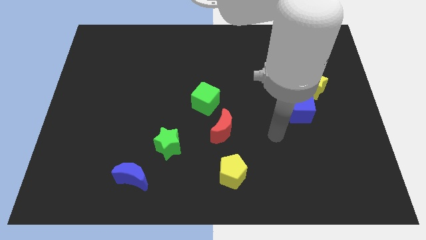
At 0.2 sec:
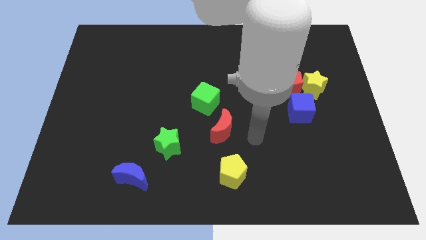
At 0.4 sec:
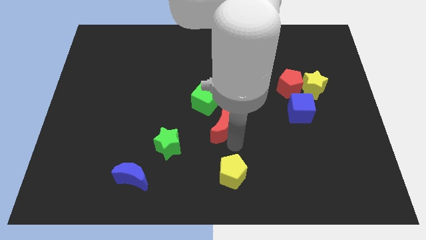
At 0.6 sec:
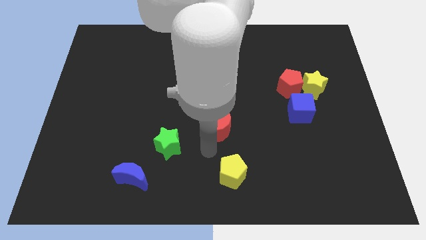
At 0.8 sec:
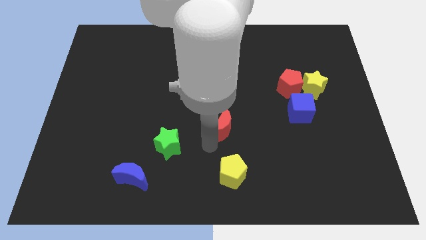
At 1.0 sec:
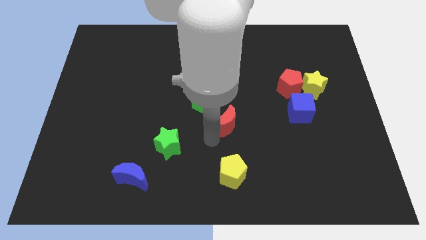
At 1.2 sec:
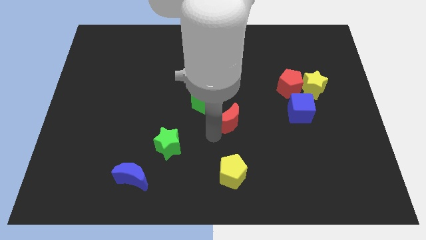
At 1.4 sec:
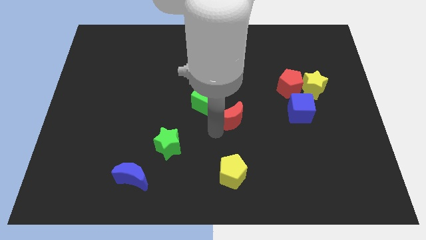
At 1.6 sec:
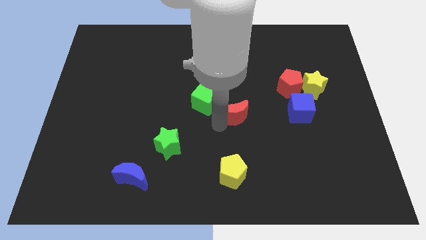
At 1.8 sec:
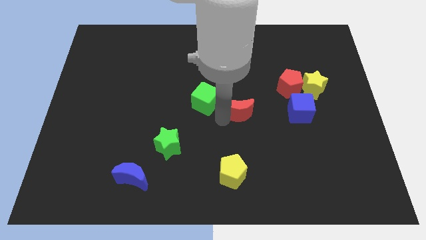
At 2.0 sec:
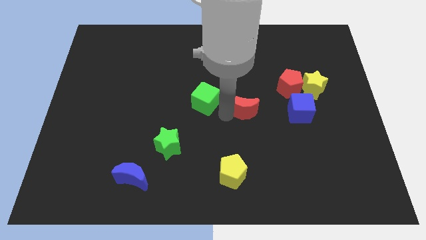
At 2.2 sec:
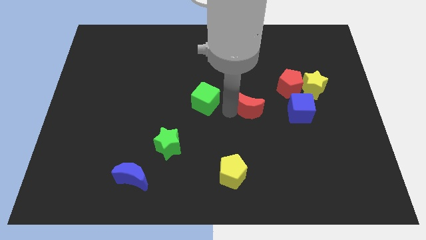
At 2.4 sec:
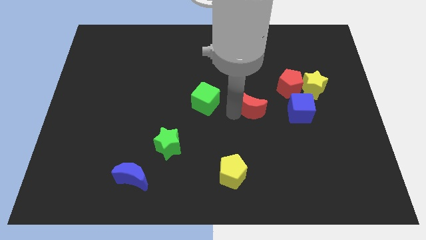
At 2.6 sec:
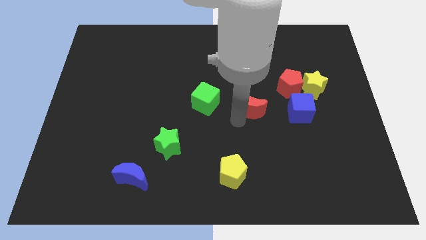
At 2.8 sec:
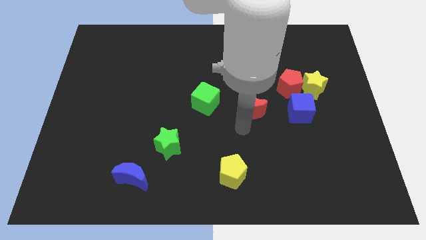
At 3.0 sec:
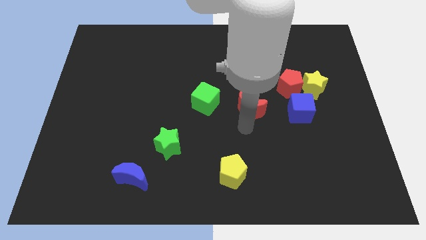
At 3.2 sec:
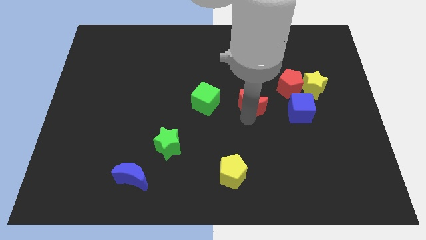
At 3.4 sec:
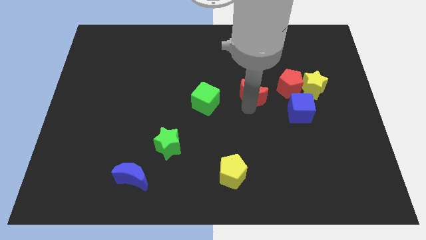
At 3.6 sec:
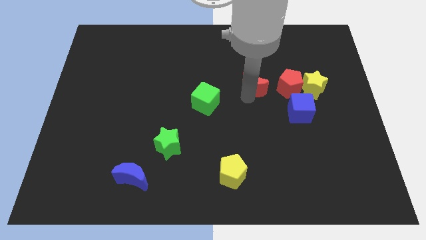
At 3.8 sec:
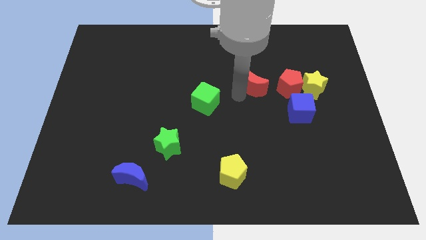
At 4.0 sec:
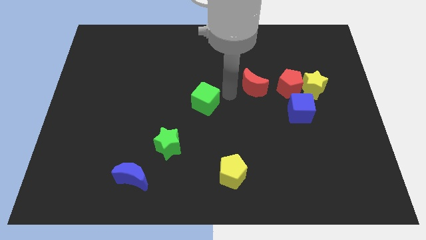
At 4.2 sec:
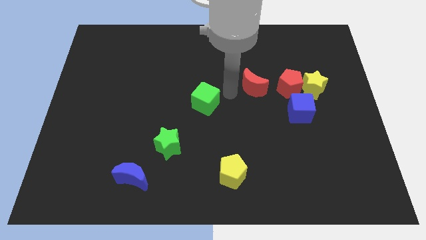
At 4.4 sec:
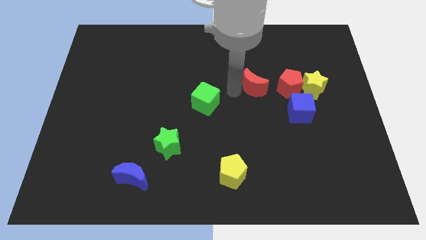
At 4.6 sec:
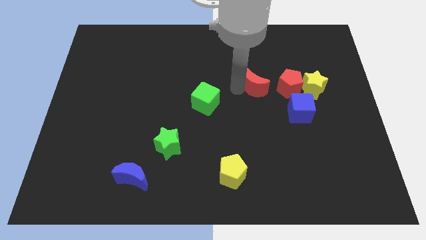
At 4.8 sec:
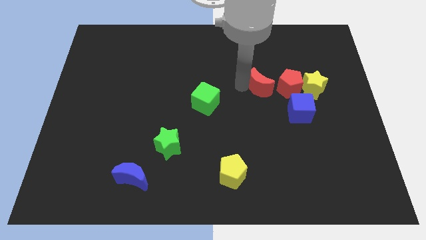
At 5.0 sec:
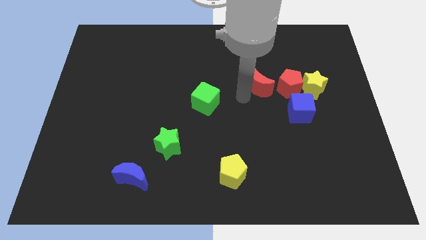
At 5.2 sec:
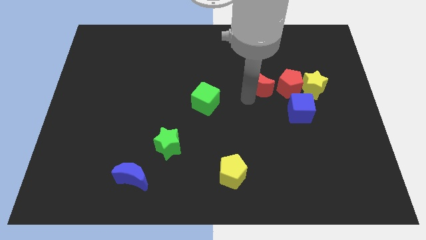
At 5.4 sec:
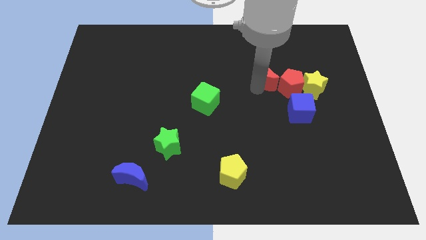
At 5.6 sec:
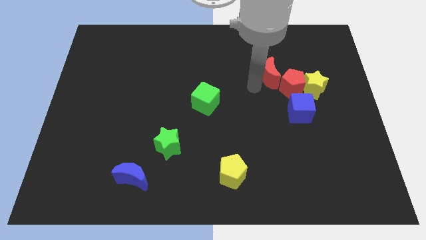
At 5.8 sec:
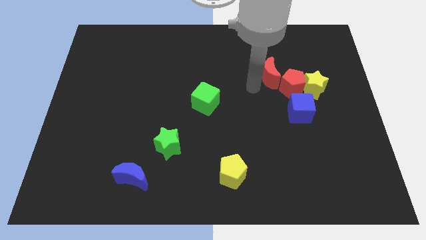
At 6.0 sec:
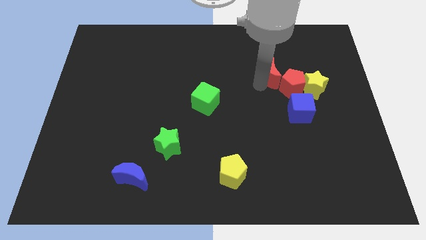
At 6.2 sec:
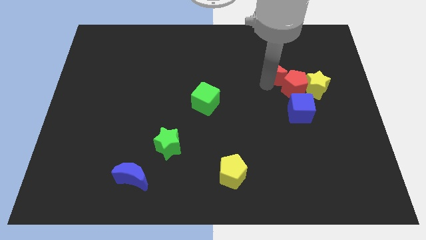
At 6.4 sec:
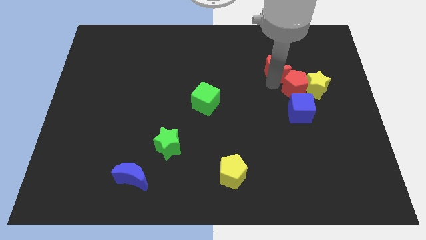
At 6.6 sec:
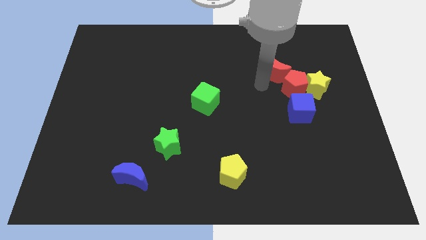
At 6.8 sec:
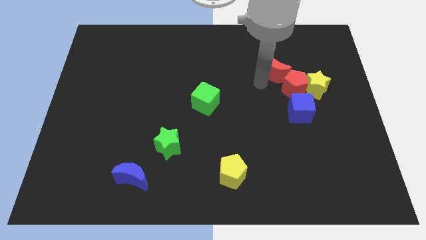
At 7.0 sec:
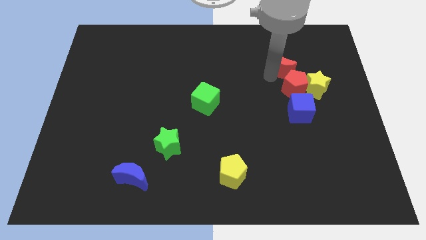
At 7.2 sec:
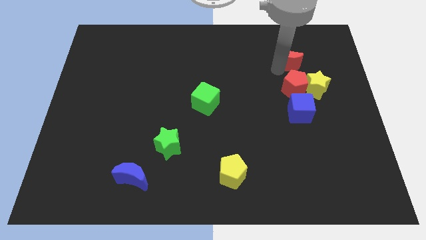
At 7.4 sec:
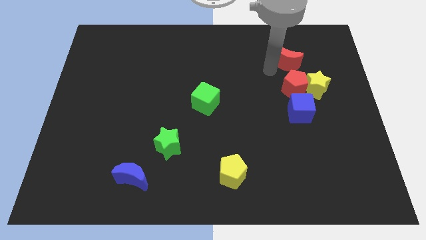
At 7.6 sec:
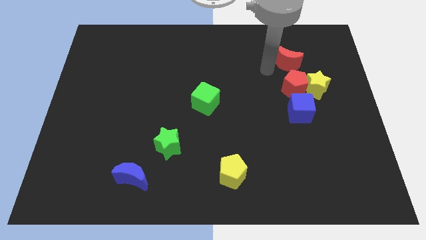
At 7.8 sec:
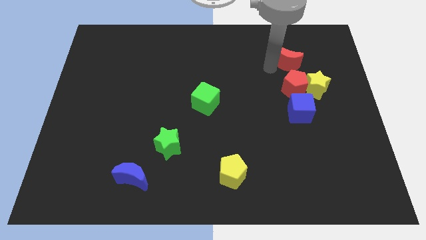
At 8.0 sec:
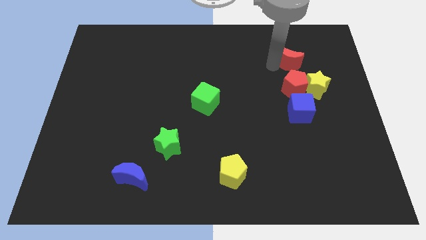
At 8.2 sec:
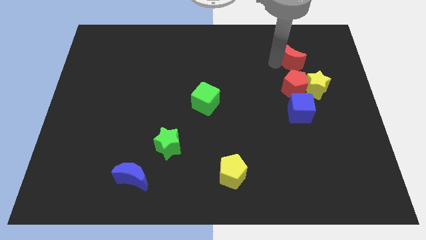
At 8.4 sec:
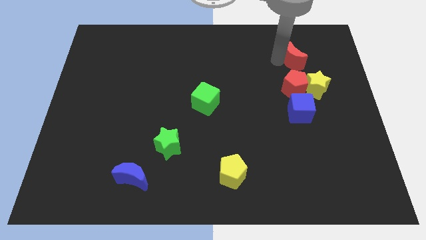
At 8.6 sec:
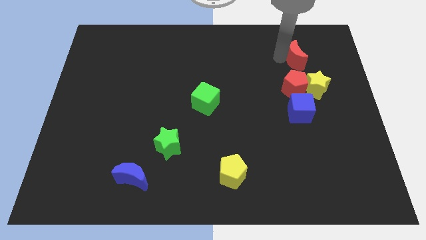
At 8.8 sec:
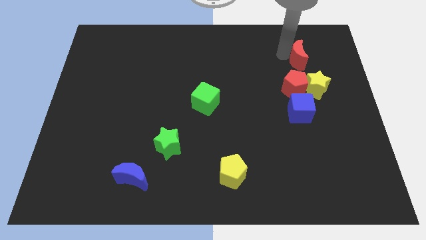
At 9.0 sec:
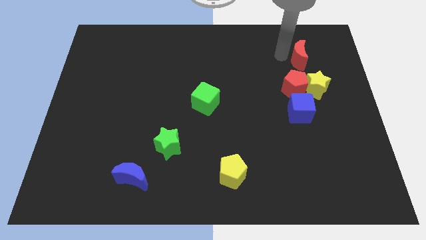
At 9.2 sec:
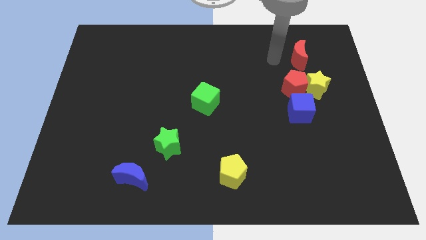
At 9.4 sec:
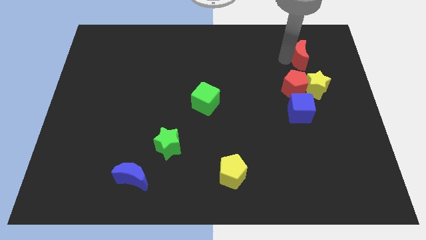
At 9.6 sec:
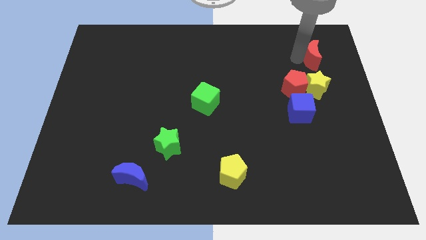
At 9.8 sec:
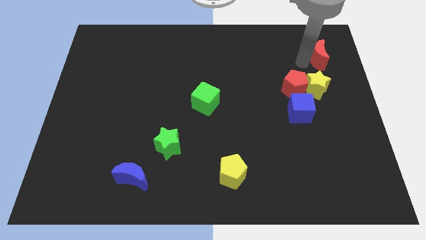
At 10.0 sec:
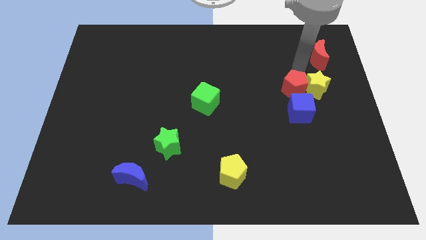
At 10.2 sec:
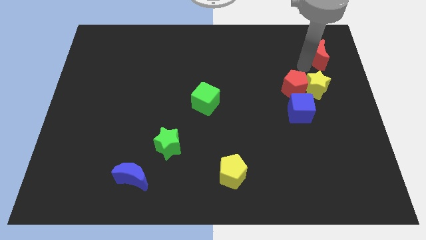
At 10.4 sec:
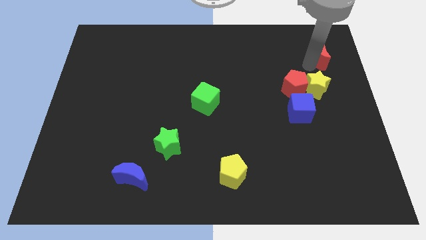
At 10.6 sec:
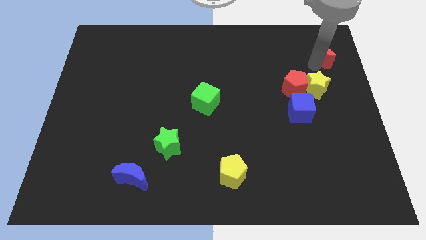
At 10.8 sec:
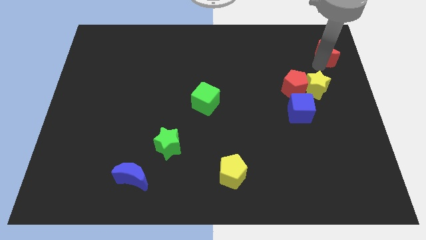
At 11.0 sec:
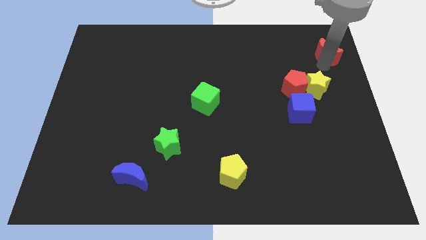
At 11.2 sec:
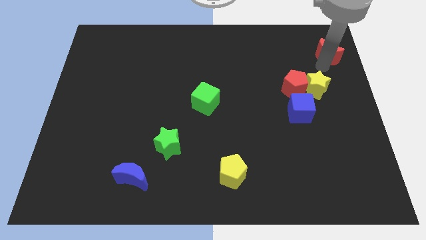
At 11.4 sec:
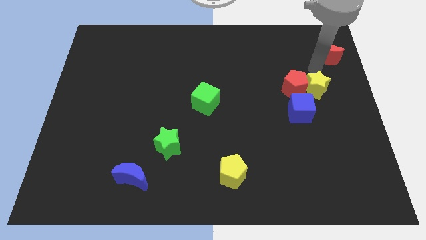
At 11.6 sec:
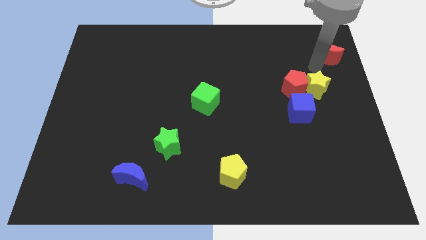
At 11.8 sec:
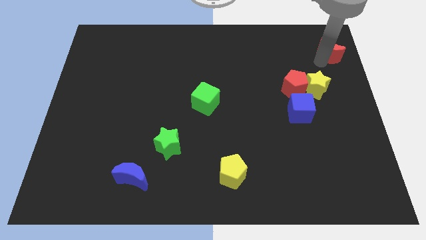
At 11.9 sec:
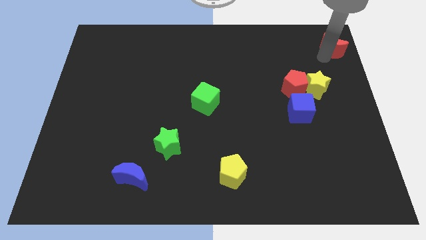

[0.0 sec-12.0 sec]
put the red moon to the top right corner
